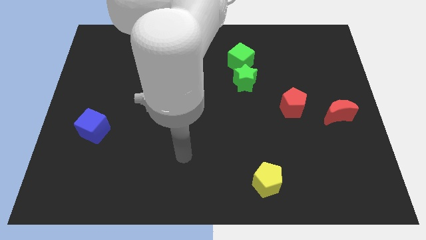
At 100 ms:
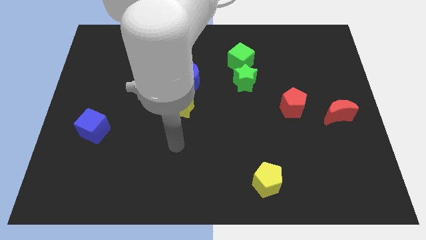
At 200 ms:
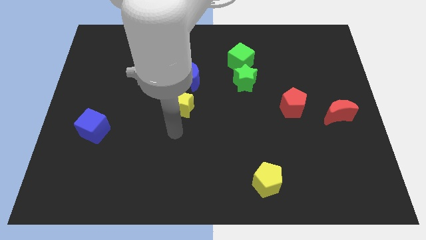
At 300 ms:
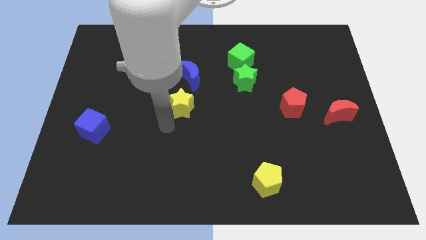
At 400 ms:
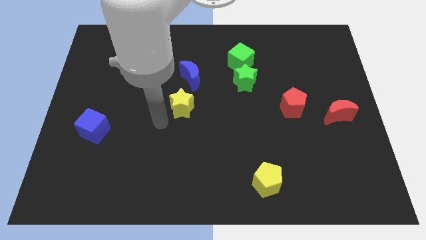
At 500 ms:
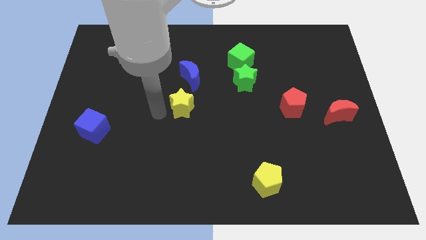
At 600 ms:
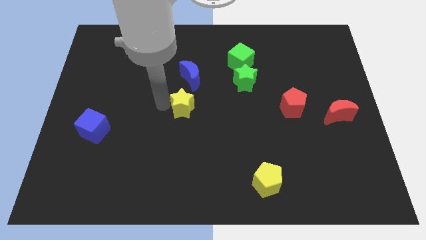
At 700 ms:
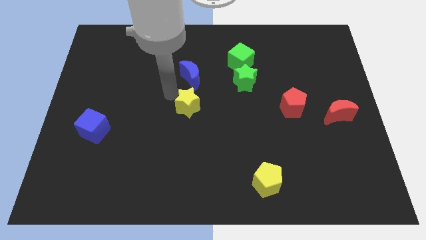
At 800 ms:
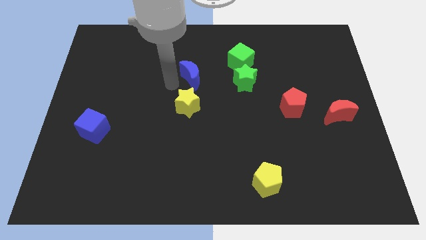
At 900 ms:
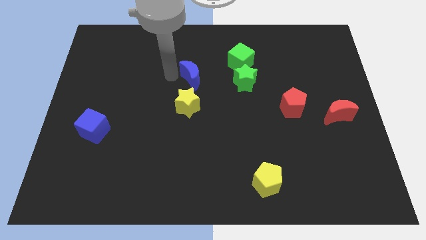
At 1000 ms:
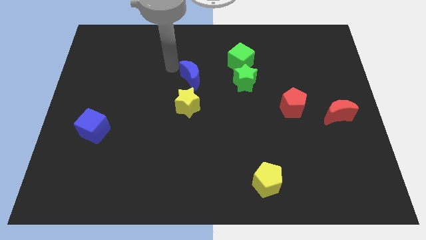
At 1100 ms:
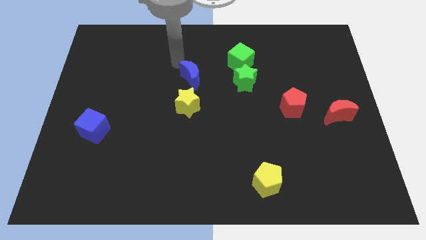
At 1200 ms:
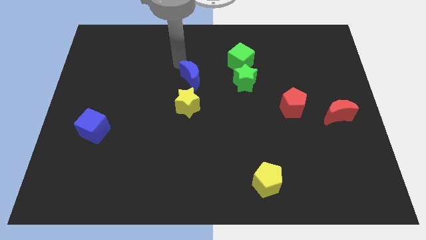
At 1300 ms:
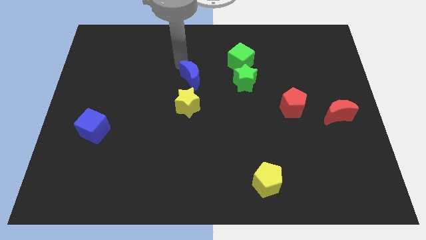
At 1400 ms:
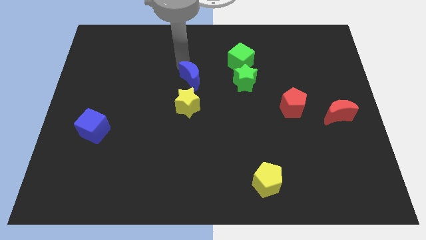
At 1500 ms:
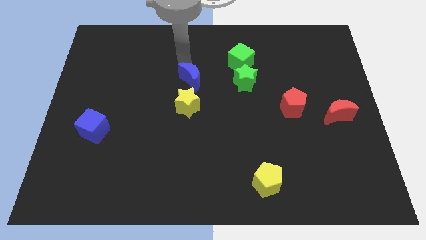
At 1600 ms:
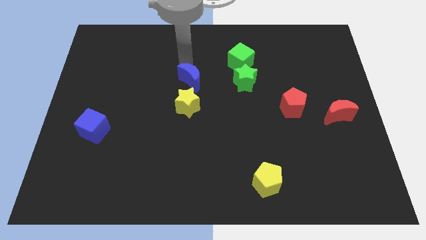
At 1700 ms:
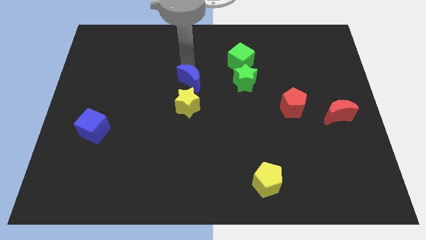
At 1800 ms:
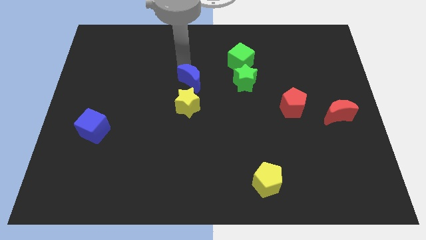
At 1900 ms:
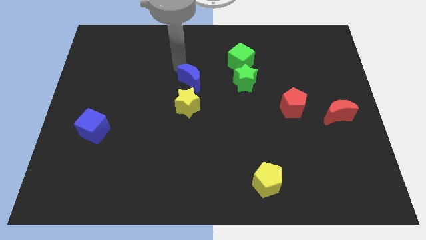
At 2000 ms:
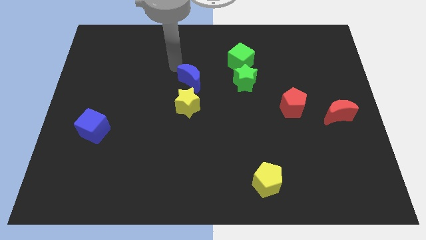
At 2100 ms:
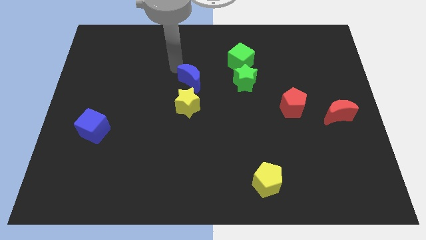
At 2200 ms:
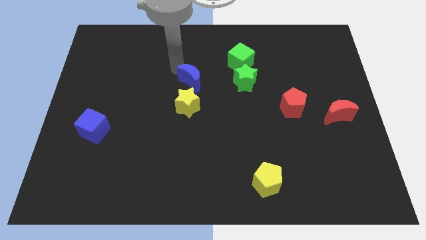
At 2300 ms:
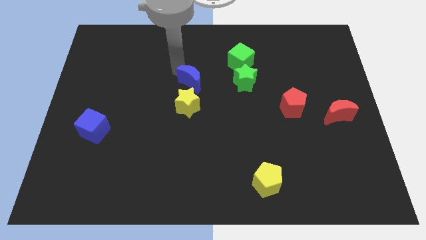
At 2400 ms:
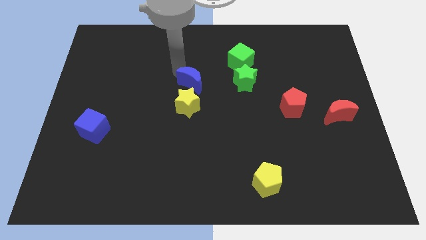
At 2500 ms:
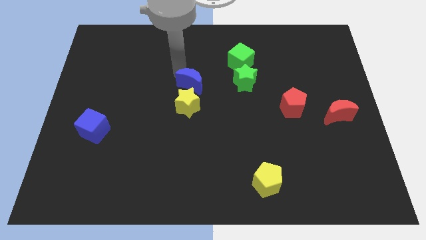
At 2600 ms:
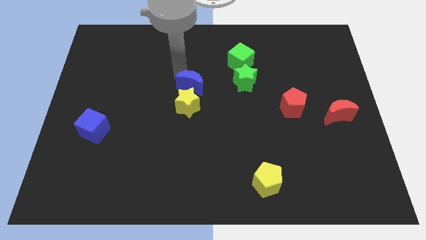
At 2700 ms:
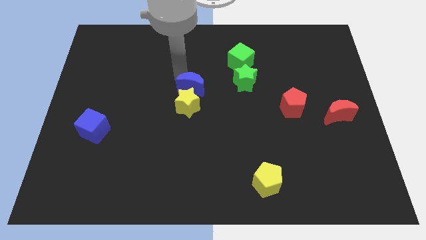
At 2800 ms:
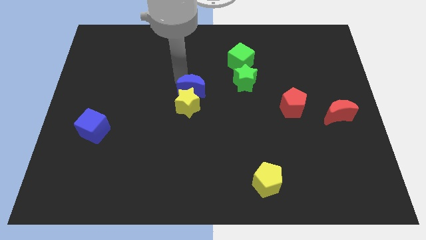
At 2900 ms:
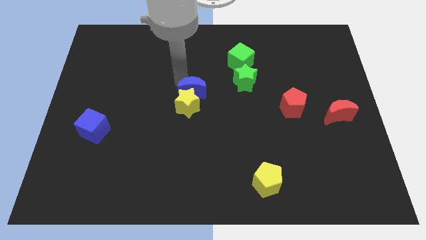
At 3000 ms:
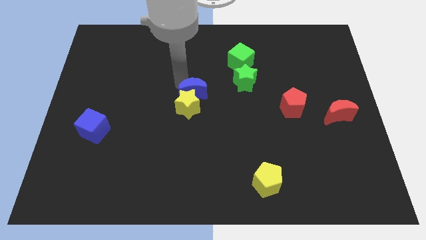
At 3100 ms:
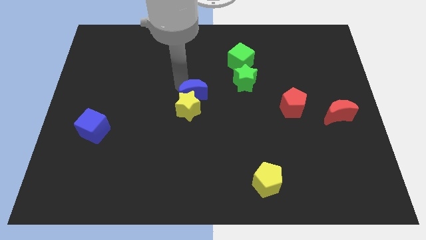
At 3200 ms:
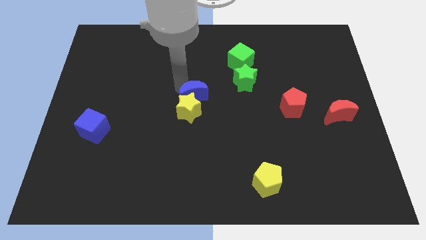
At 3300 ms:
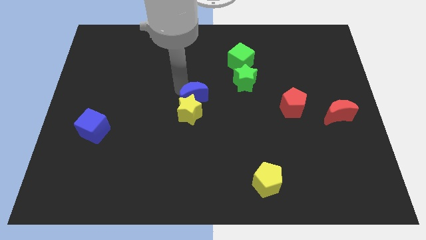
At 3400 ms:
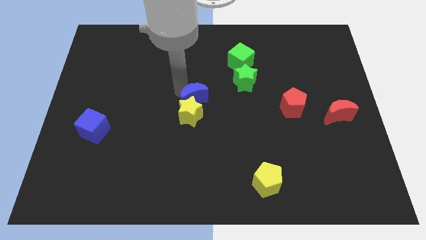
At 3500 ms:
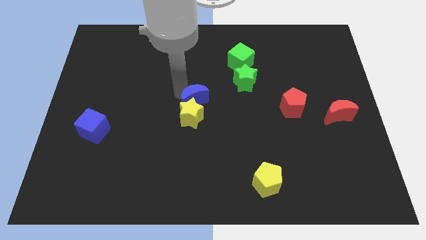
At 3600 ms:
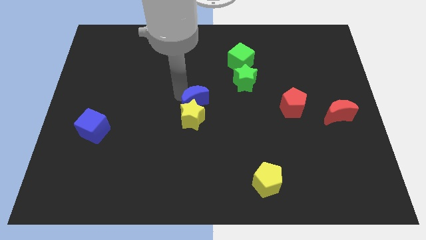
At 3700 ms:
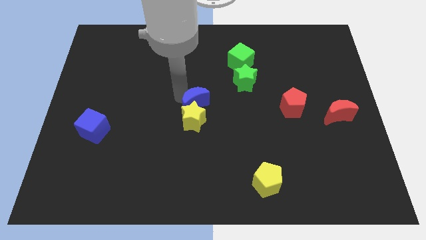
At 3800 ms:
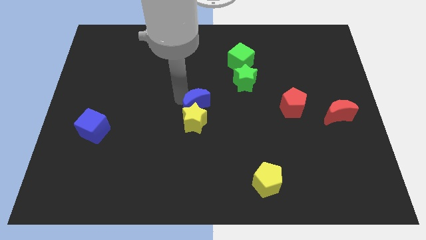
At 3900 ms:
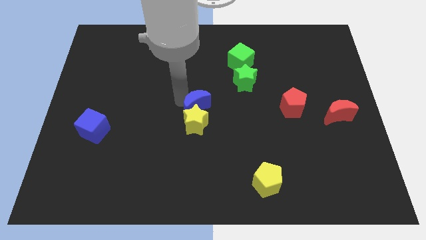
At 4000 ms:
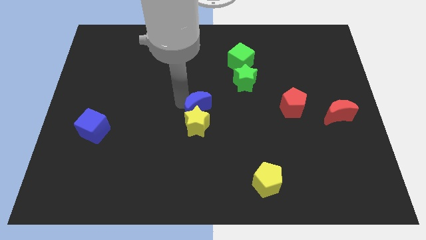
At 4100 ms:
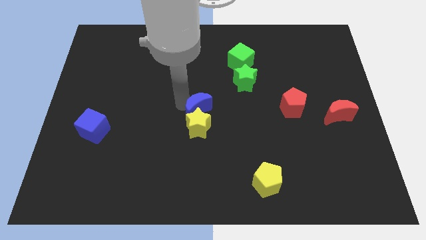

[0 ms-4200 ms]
move the blue moon diagonally downwards and right somewhat

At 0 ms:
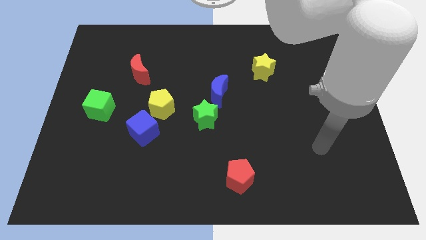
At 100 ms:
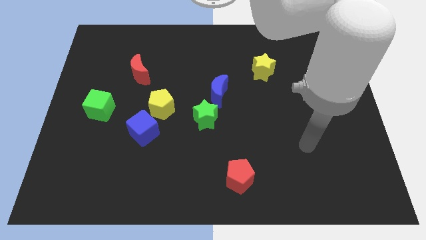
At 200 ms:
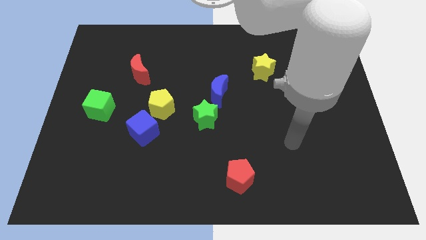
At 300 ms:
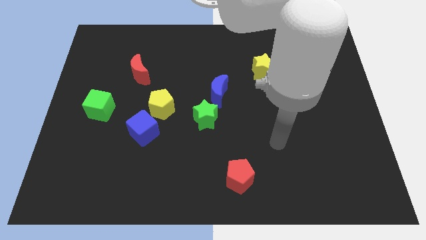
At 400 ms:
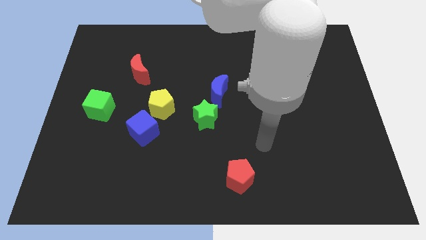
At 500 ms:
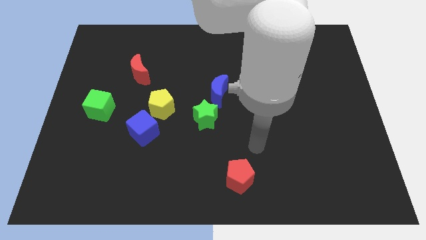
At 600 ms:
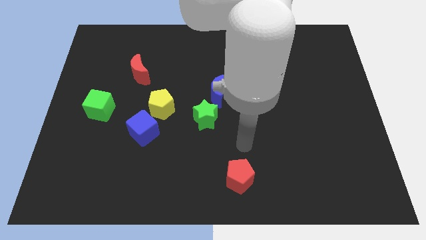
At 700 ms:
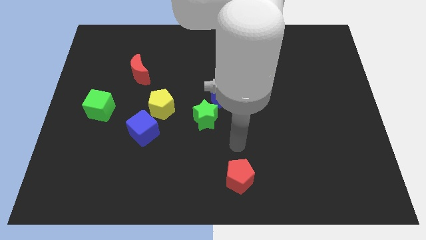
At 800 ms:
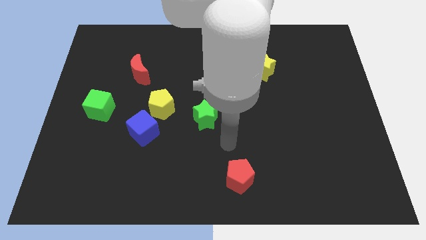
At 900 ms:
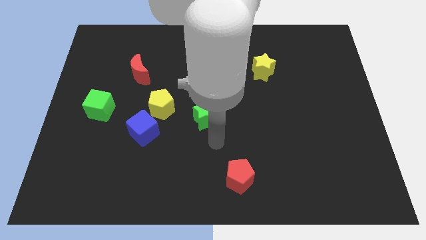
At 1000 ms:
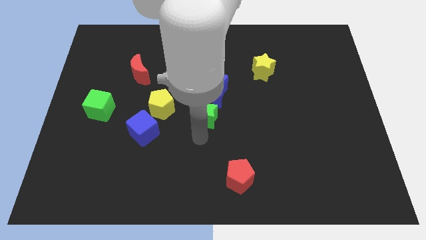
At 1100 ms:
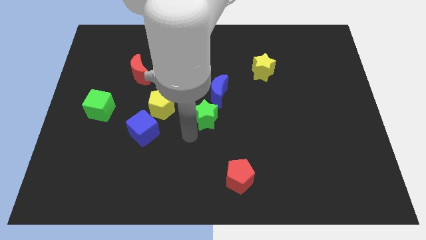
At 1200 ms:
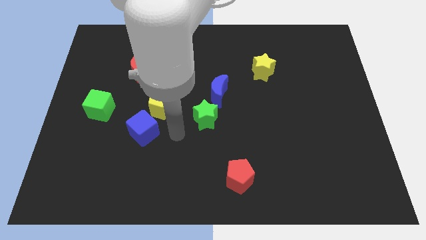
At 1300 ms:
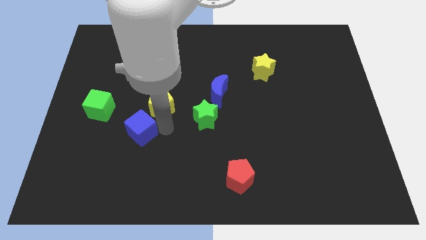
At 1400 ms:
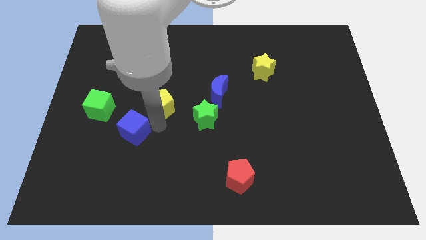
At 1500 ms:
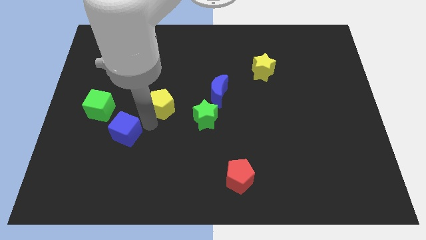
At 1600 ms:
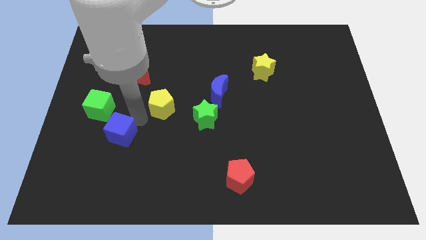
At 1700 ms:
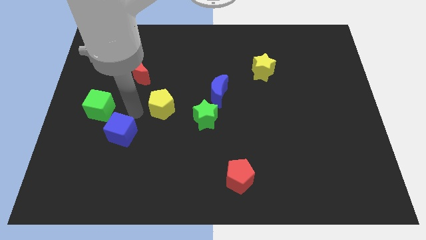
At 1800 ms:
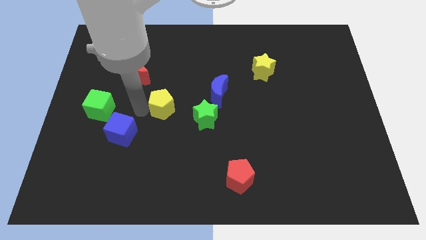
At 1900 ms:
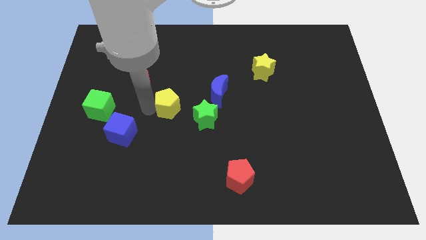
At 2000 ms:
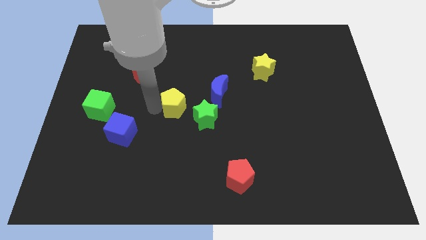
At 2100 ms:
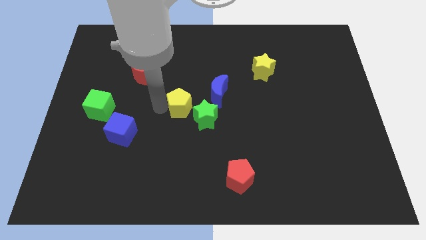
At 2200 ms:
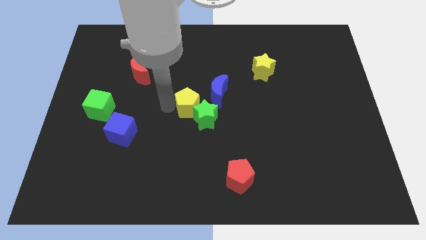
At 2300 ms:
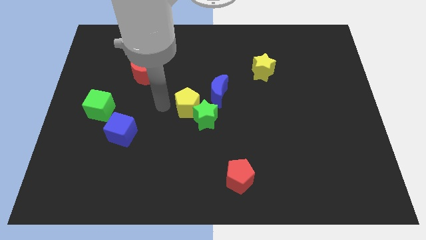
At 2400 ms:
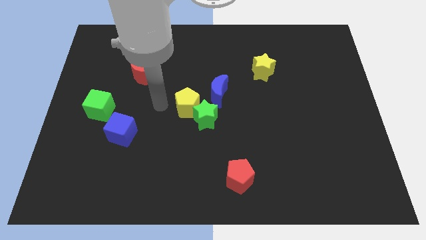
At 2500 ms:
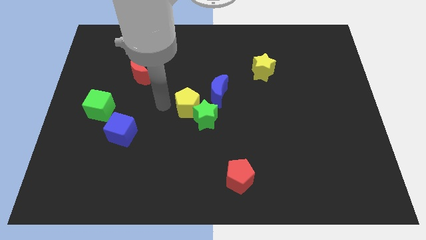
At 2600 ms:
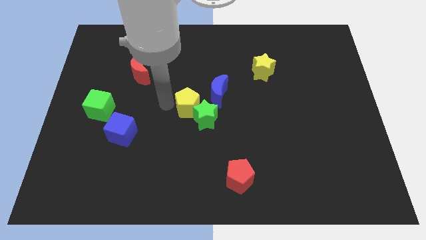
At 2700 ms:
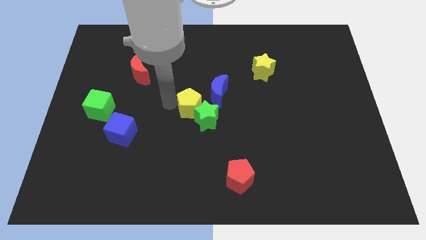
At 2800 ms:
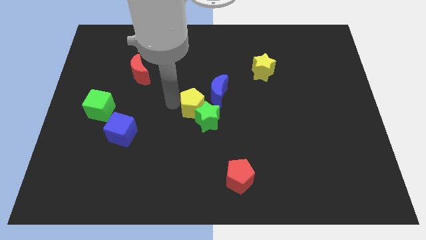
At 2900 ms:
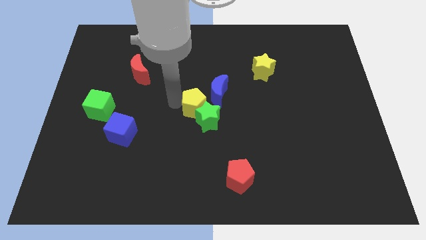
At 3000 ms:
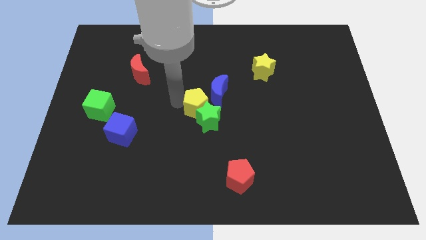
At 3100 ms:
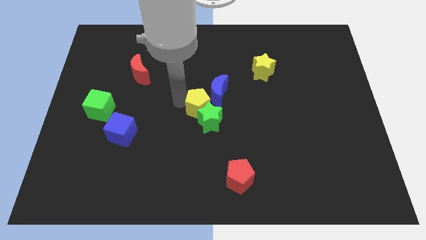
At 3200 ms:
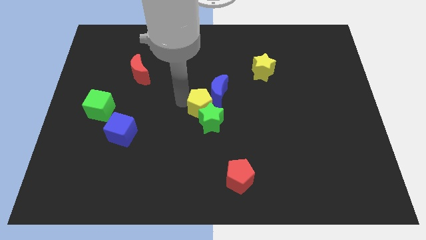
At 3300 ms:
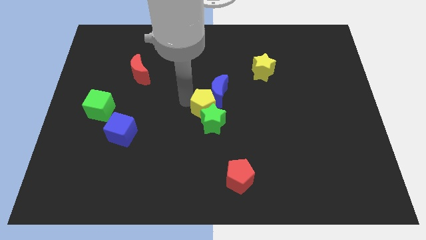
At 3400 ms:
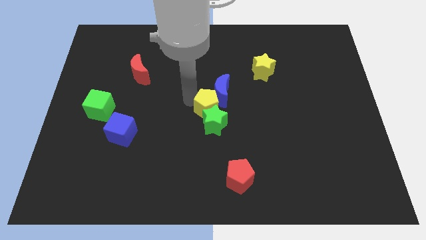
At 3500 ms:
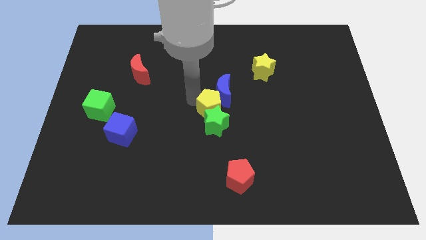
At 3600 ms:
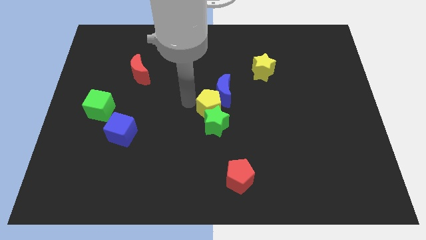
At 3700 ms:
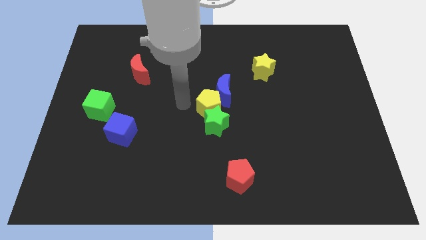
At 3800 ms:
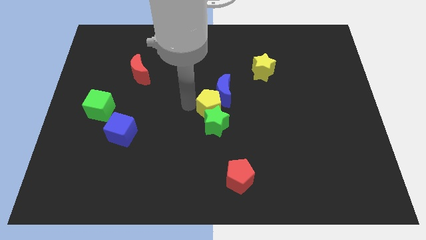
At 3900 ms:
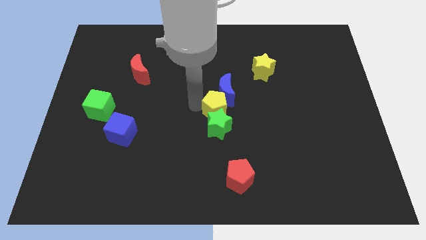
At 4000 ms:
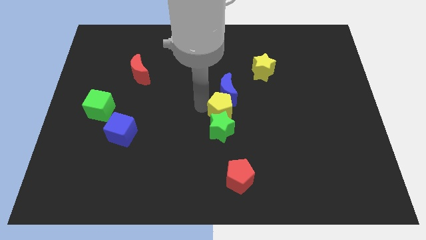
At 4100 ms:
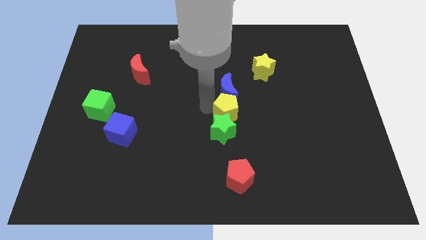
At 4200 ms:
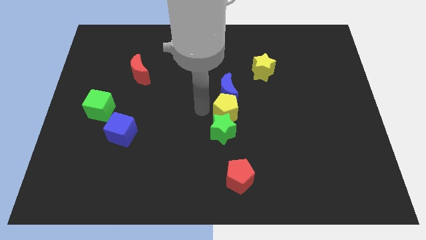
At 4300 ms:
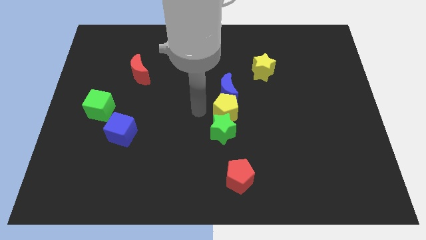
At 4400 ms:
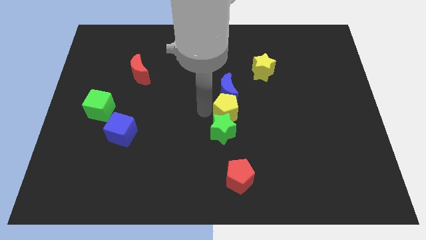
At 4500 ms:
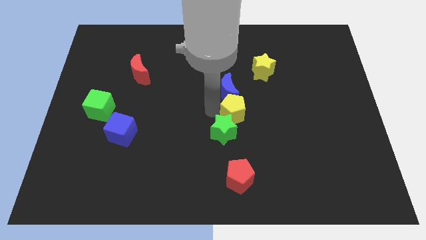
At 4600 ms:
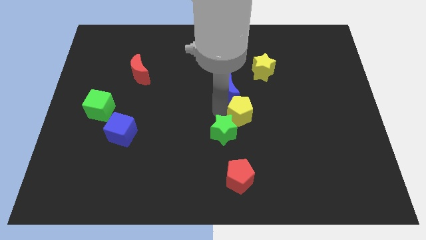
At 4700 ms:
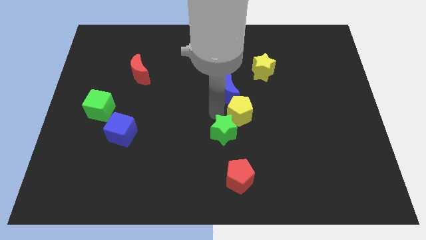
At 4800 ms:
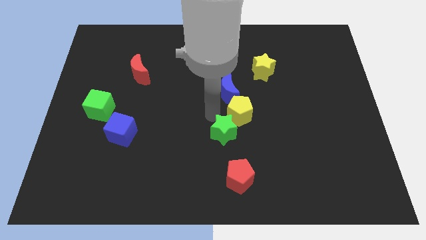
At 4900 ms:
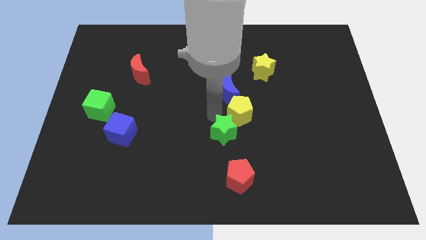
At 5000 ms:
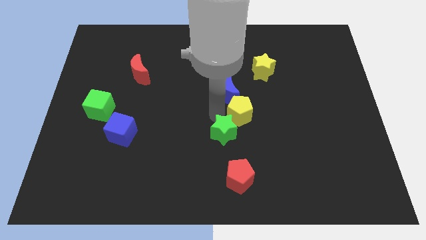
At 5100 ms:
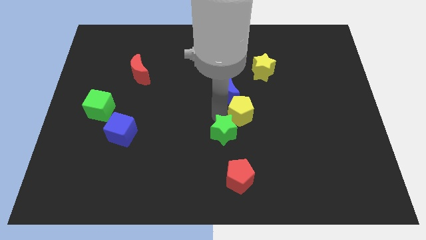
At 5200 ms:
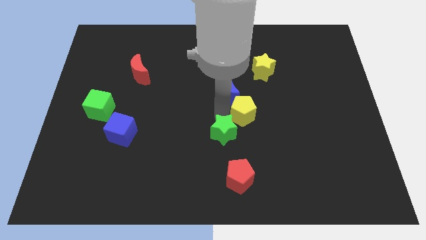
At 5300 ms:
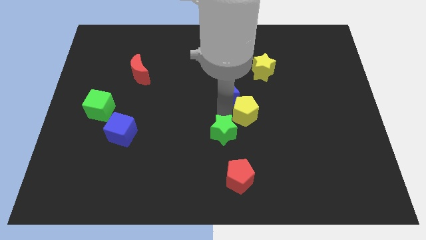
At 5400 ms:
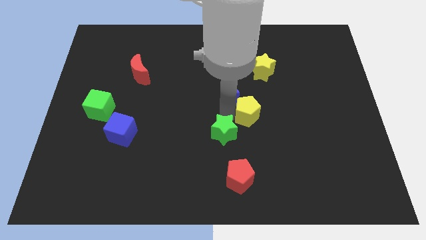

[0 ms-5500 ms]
slide the yellow pentagon right
